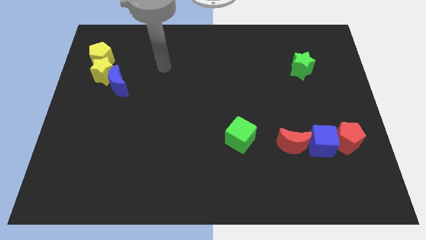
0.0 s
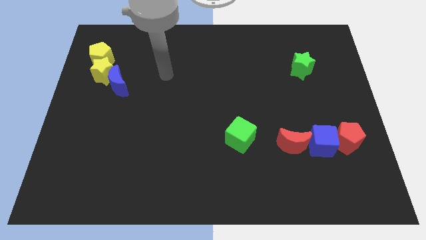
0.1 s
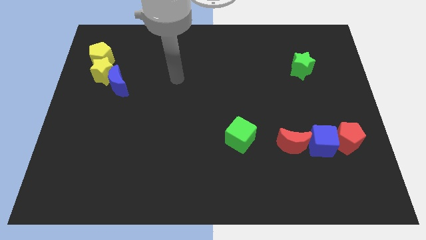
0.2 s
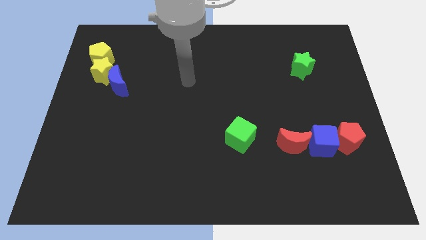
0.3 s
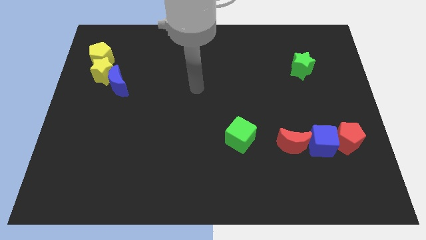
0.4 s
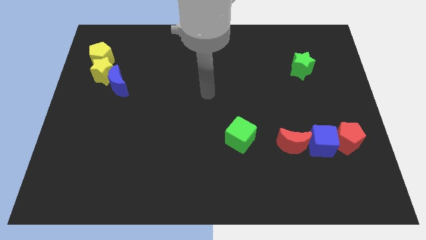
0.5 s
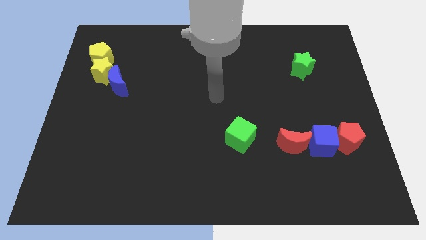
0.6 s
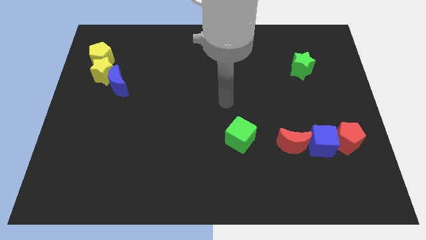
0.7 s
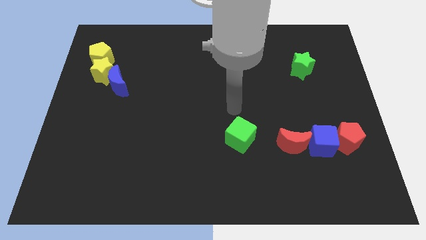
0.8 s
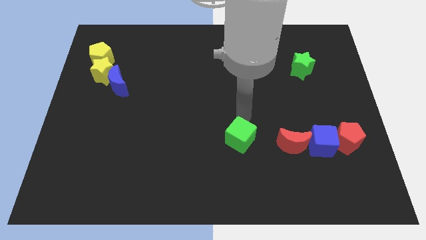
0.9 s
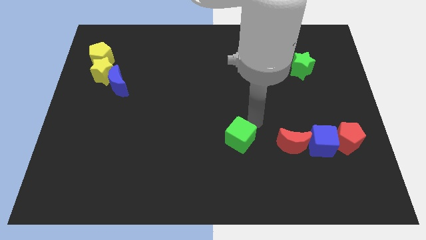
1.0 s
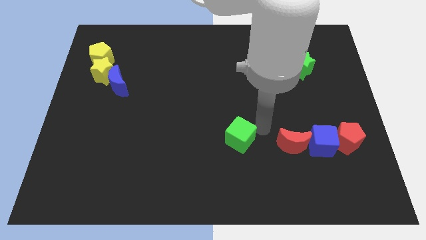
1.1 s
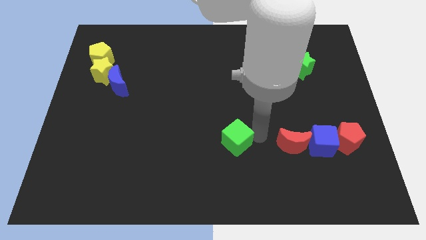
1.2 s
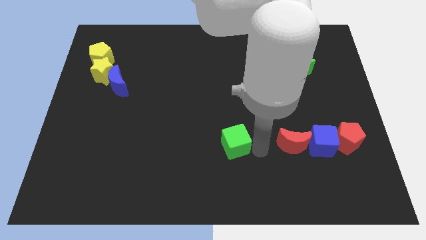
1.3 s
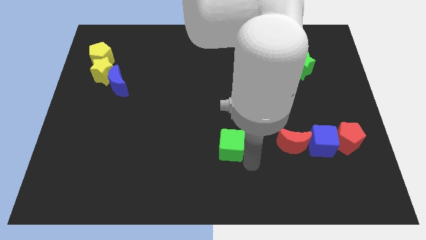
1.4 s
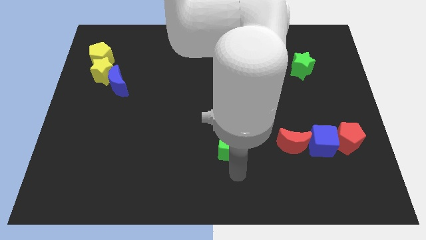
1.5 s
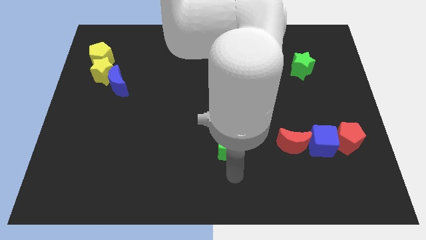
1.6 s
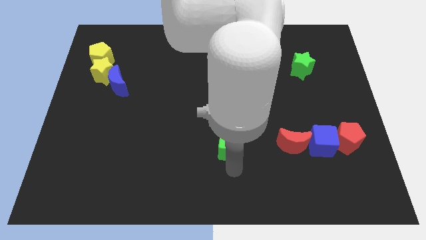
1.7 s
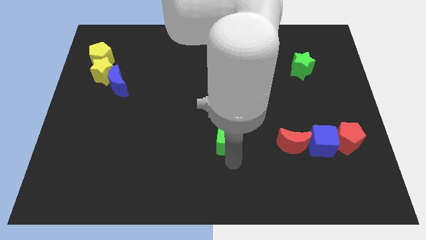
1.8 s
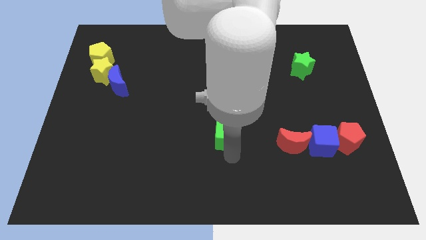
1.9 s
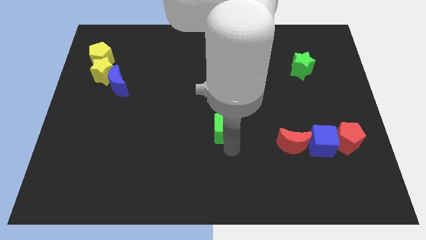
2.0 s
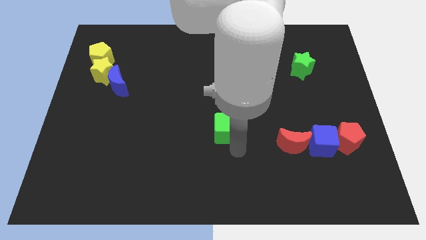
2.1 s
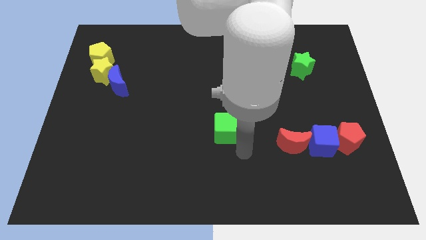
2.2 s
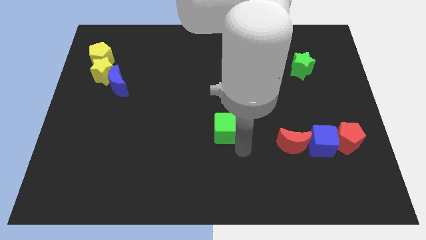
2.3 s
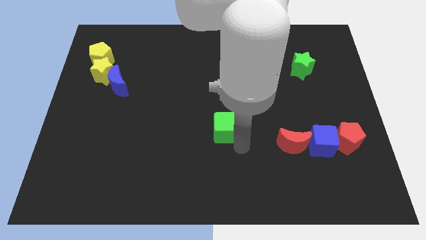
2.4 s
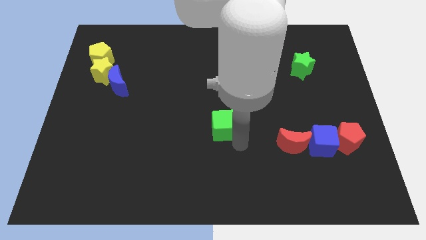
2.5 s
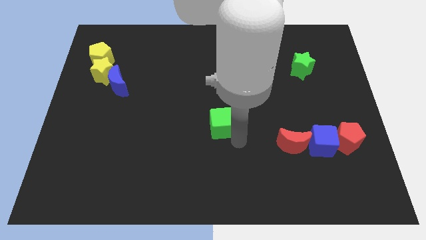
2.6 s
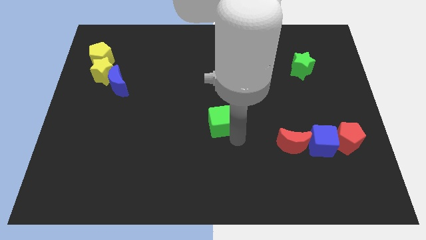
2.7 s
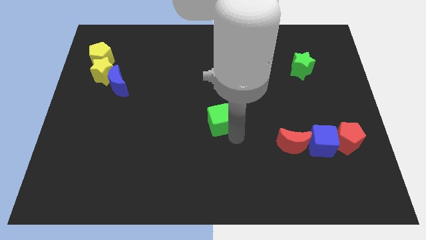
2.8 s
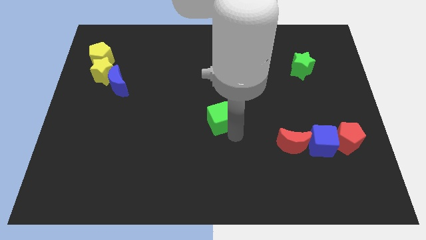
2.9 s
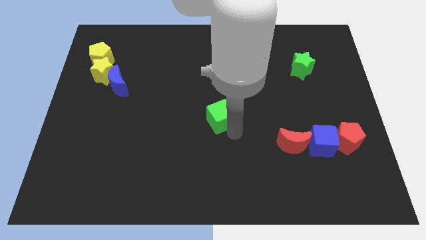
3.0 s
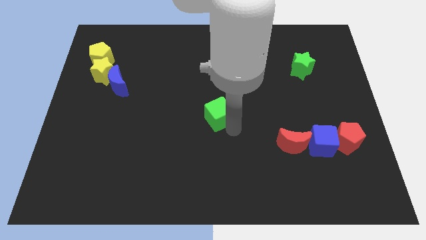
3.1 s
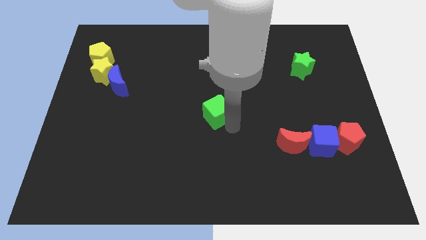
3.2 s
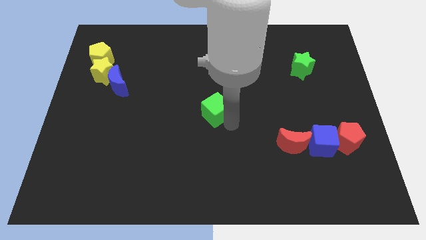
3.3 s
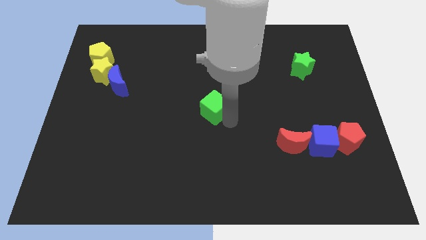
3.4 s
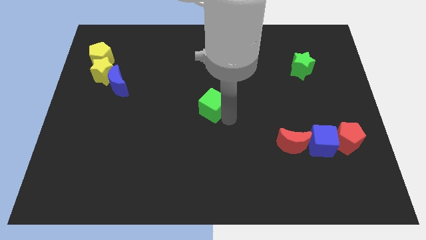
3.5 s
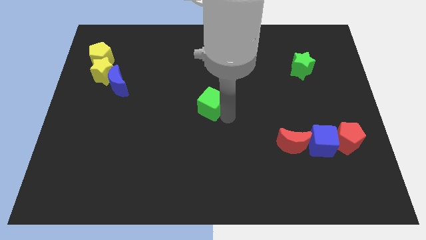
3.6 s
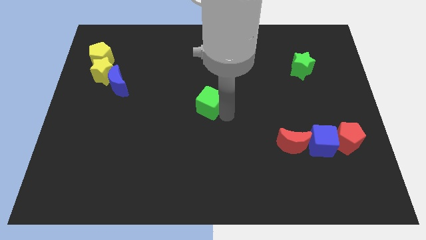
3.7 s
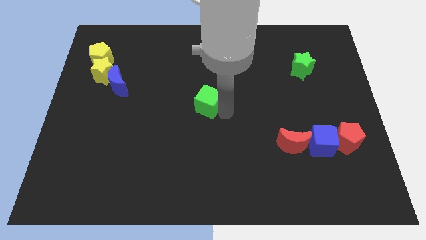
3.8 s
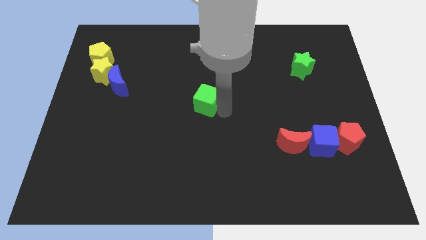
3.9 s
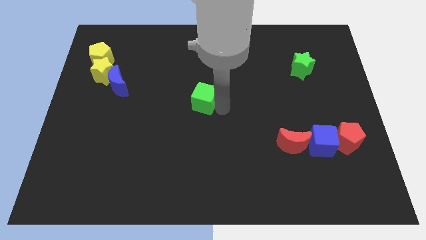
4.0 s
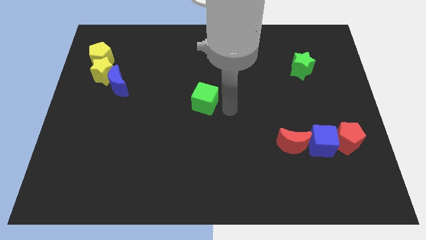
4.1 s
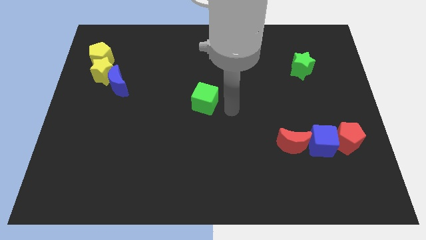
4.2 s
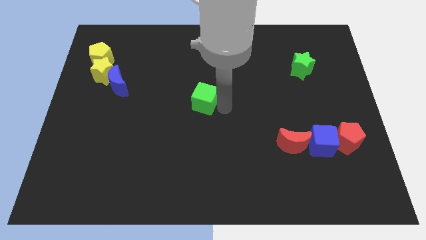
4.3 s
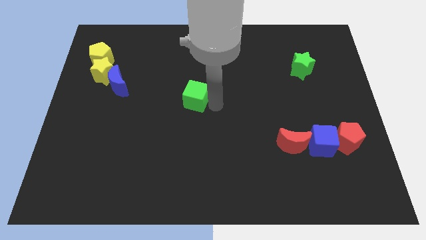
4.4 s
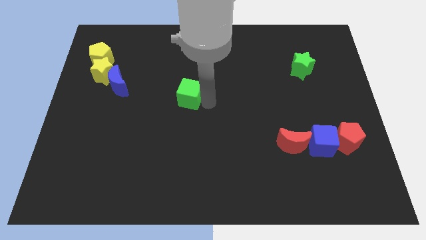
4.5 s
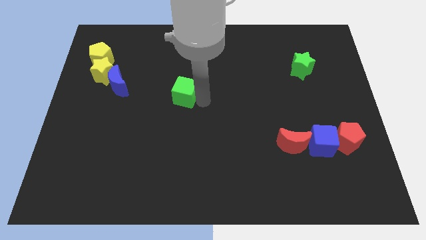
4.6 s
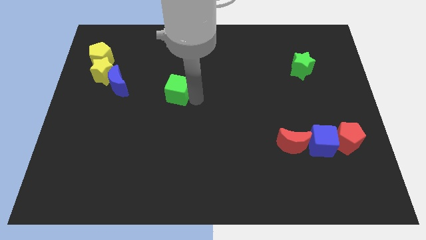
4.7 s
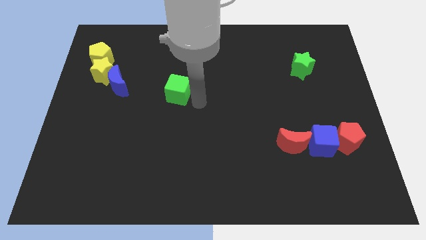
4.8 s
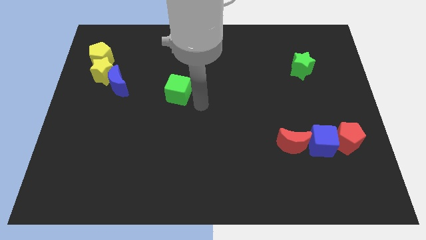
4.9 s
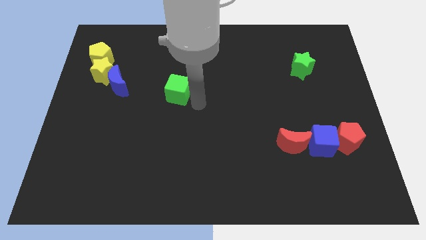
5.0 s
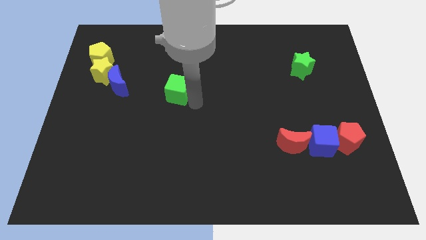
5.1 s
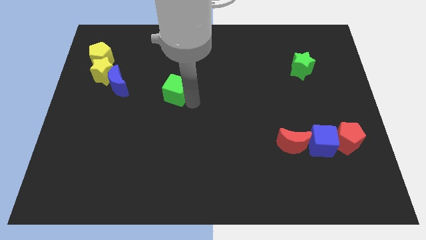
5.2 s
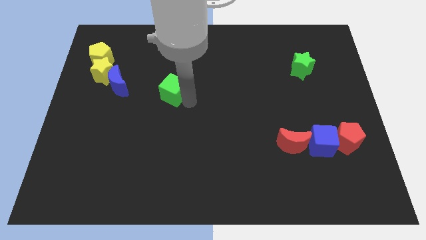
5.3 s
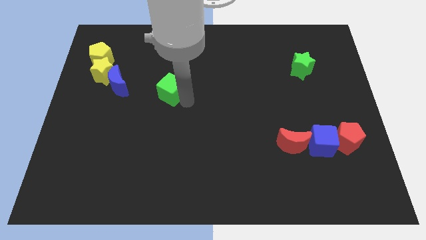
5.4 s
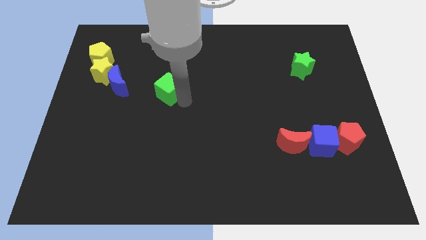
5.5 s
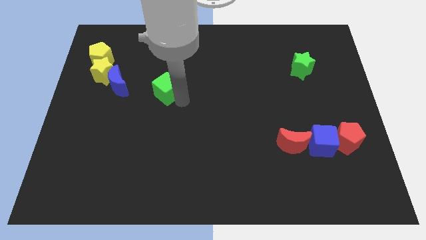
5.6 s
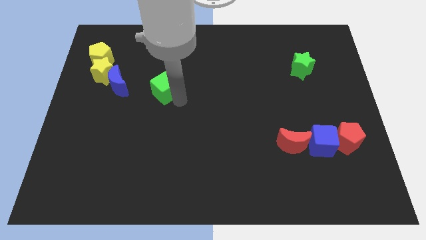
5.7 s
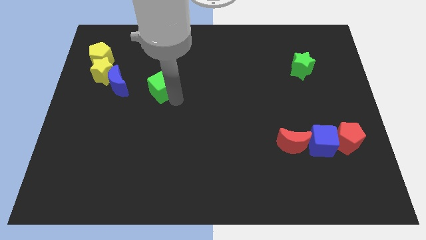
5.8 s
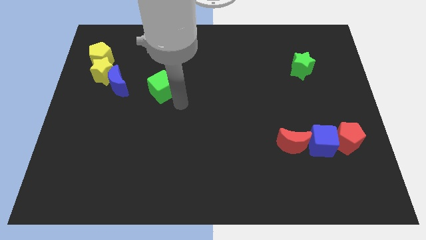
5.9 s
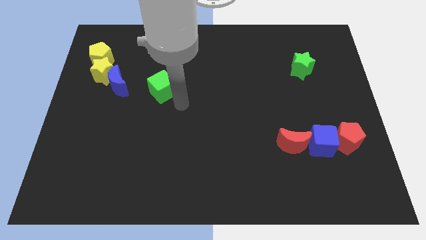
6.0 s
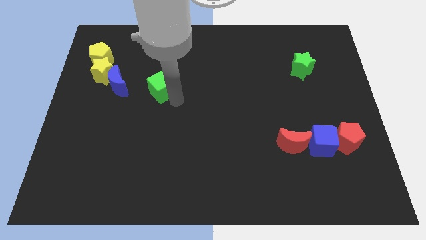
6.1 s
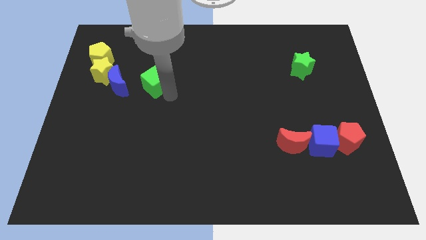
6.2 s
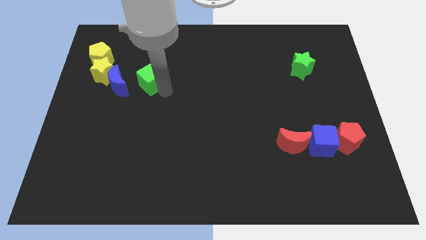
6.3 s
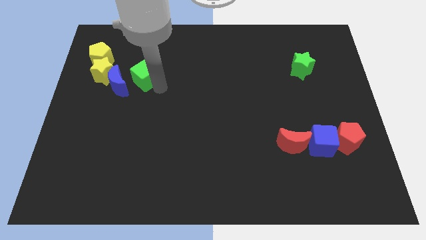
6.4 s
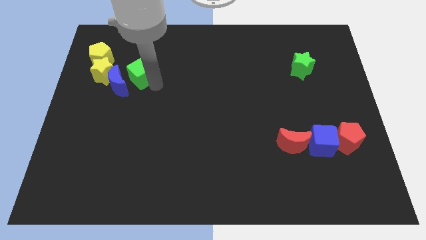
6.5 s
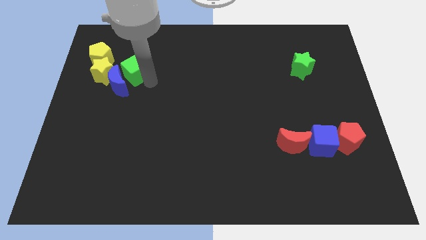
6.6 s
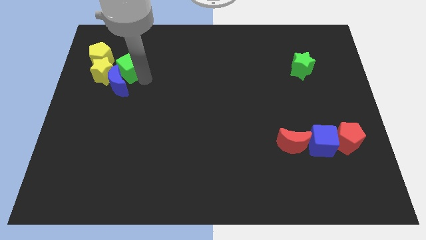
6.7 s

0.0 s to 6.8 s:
slide the green cube diagonally up and to the right of the yellow star
